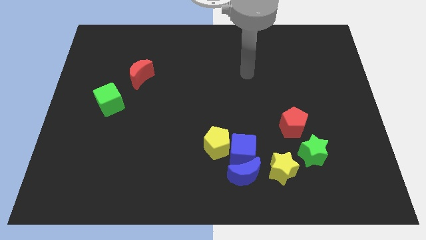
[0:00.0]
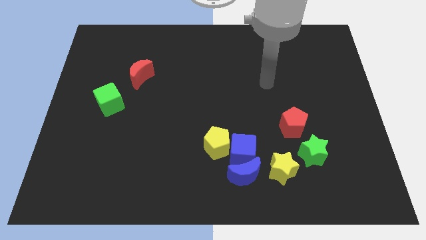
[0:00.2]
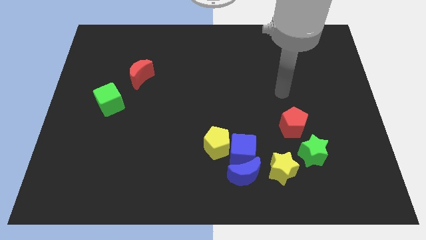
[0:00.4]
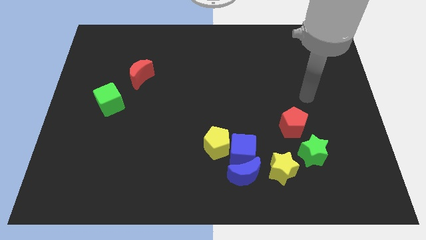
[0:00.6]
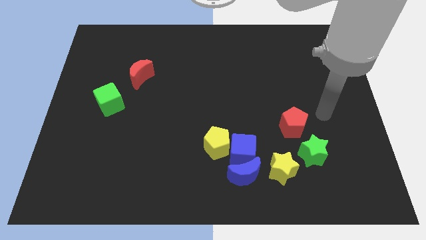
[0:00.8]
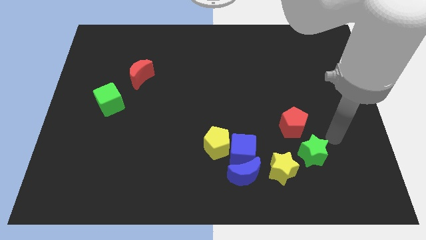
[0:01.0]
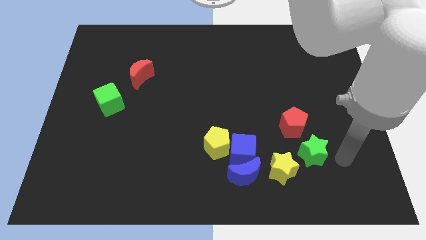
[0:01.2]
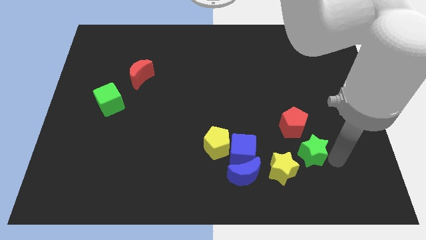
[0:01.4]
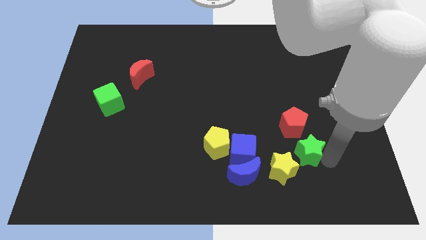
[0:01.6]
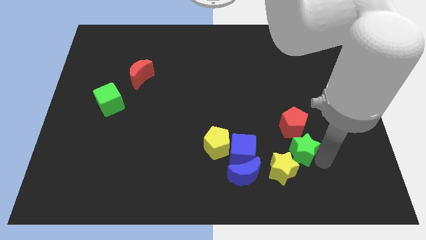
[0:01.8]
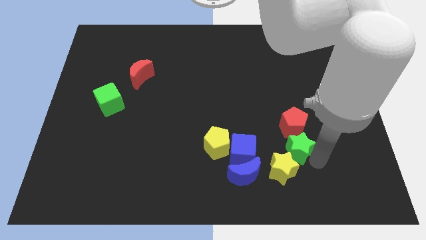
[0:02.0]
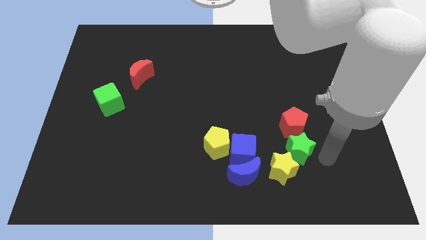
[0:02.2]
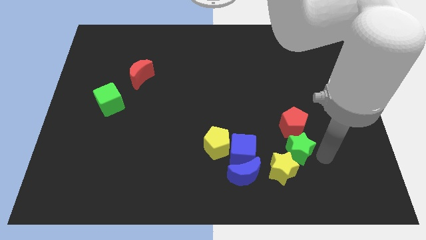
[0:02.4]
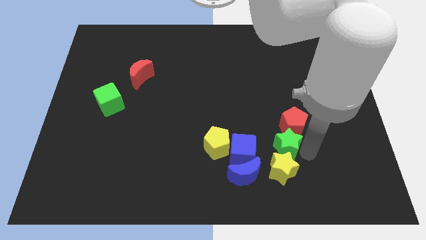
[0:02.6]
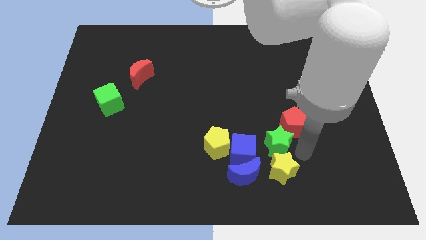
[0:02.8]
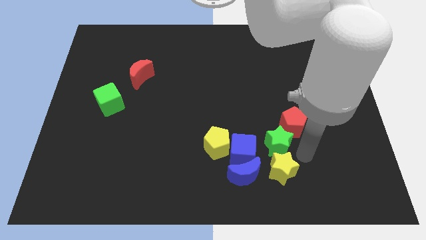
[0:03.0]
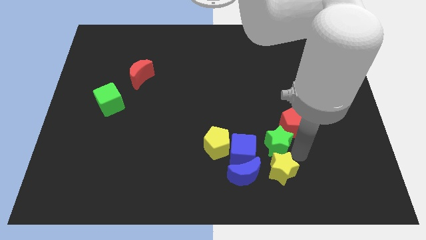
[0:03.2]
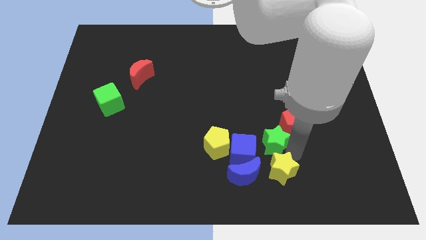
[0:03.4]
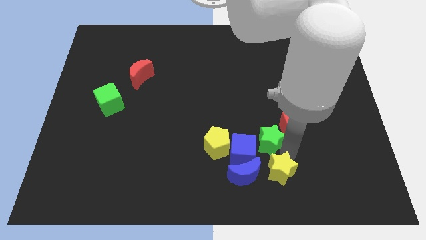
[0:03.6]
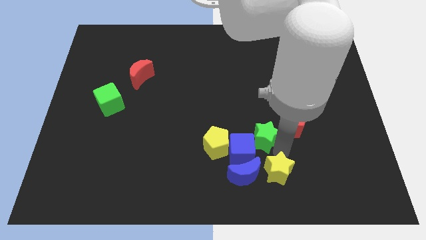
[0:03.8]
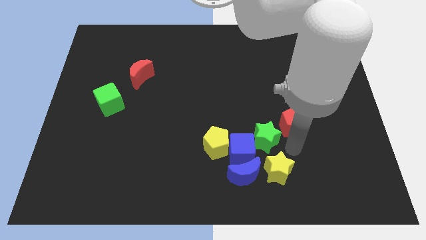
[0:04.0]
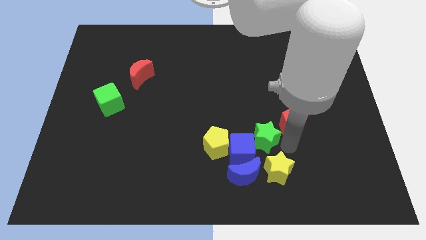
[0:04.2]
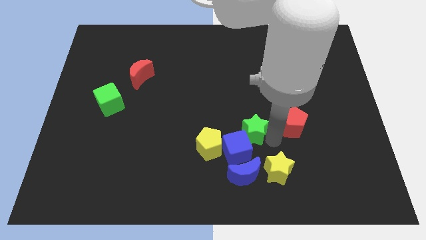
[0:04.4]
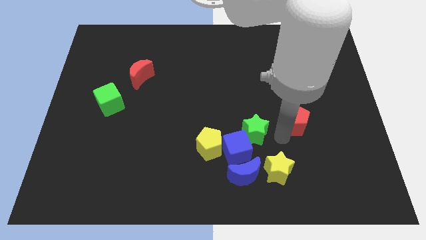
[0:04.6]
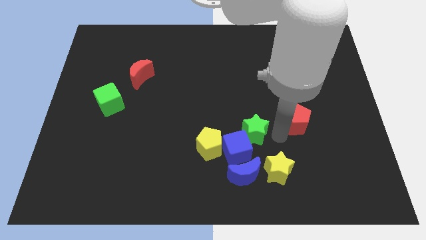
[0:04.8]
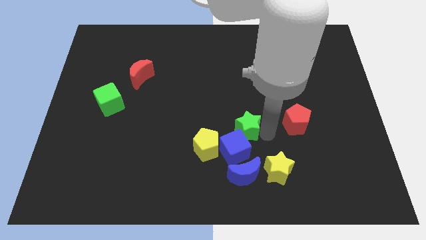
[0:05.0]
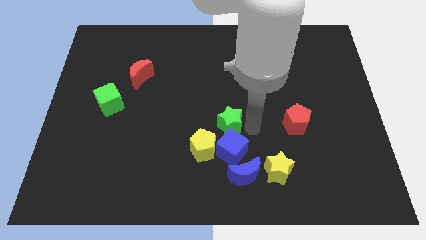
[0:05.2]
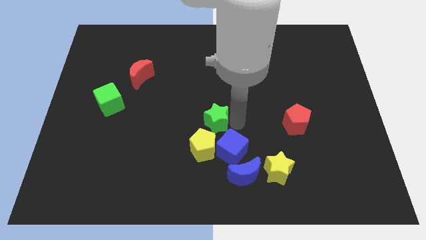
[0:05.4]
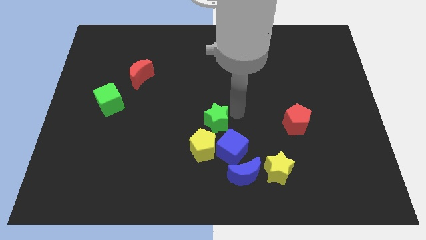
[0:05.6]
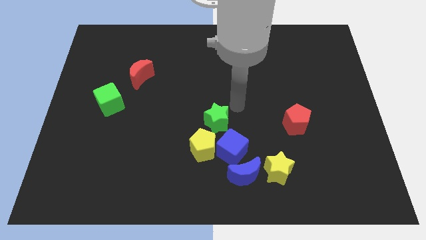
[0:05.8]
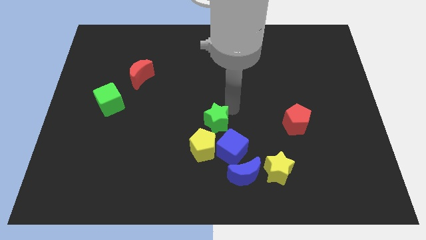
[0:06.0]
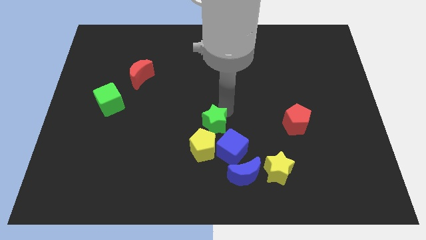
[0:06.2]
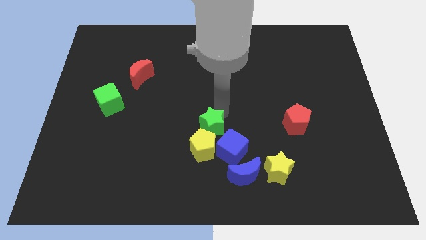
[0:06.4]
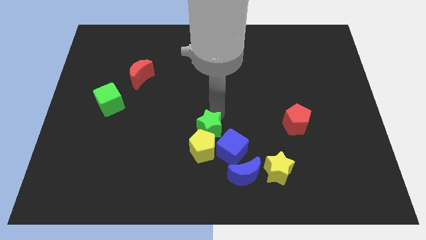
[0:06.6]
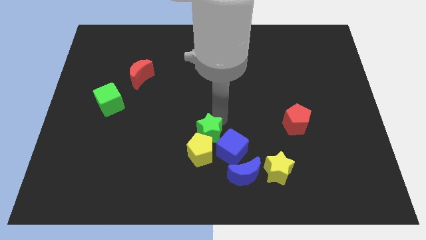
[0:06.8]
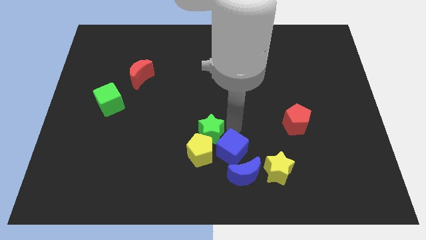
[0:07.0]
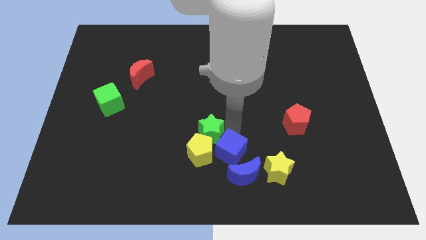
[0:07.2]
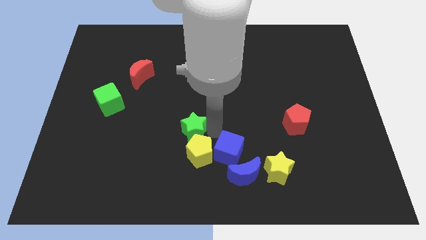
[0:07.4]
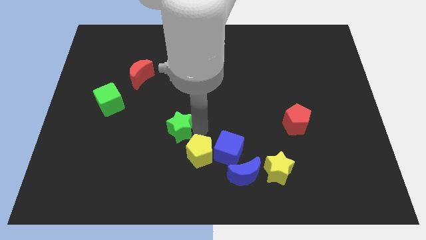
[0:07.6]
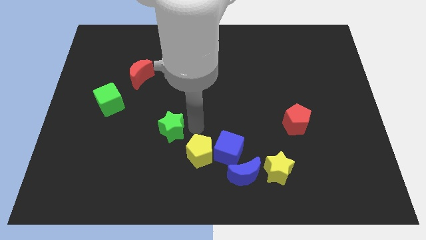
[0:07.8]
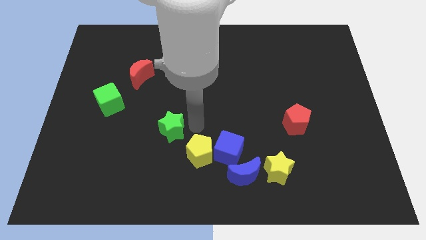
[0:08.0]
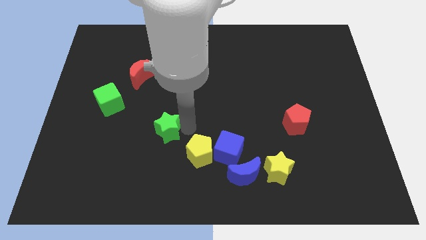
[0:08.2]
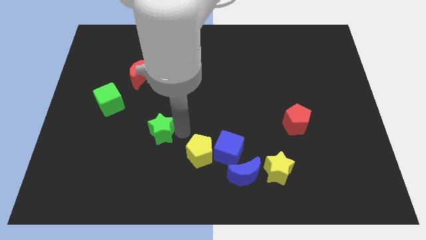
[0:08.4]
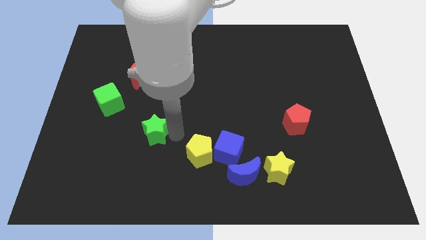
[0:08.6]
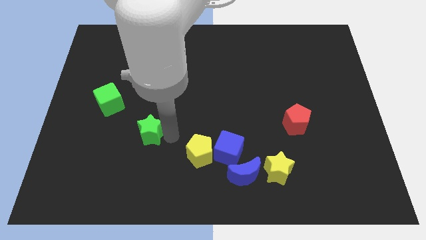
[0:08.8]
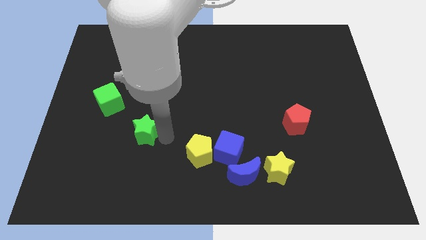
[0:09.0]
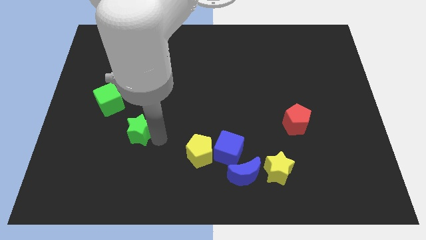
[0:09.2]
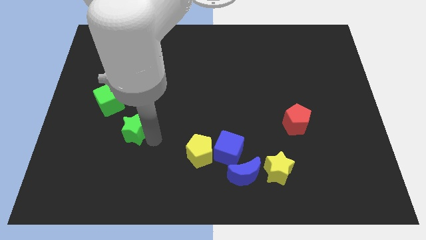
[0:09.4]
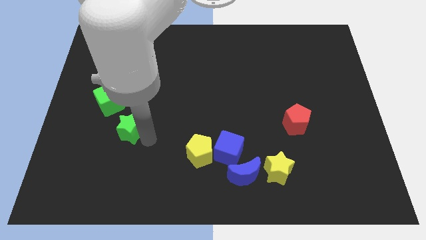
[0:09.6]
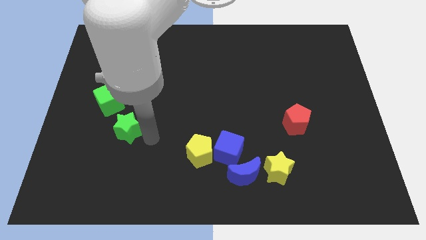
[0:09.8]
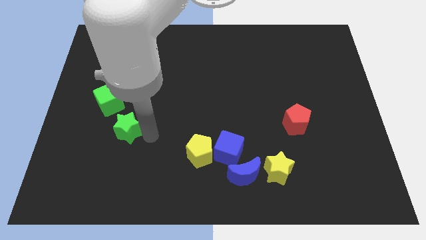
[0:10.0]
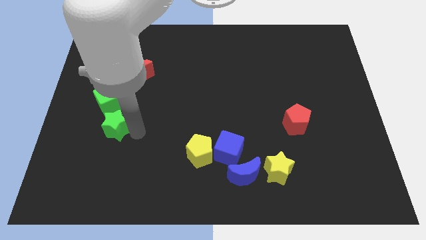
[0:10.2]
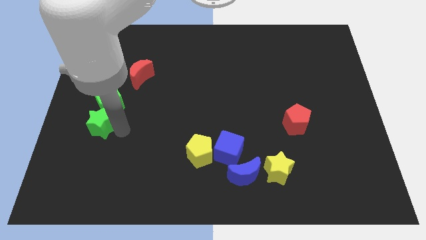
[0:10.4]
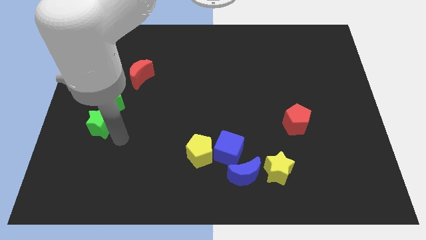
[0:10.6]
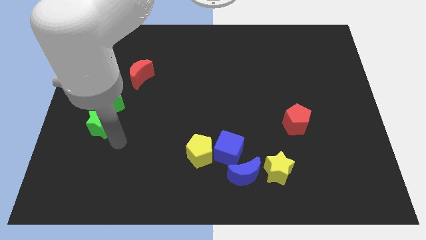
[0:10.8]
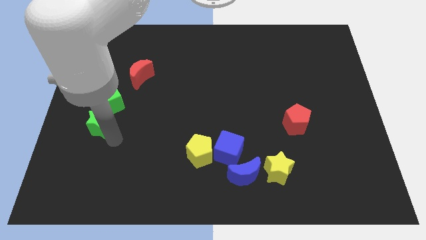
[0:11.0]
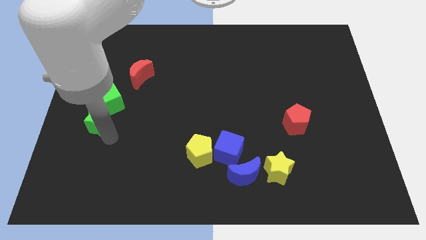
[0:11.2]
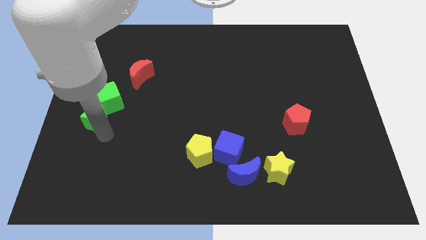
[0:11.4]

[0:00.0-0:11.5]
slide the green star to the left side
